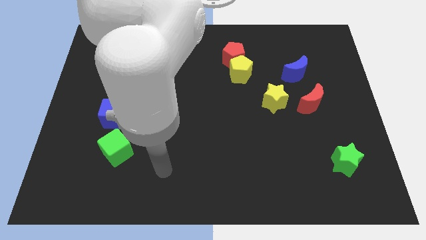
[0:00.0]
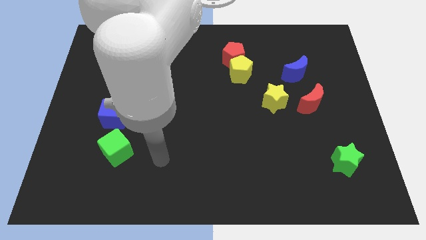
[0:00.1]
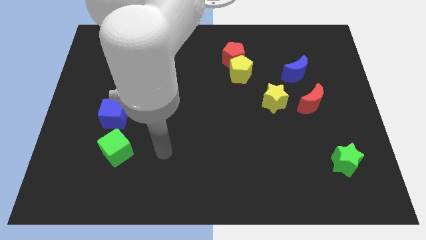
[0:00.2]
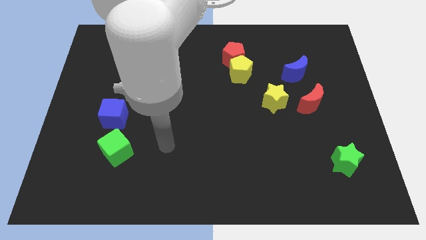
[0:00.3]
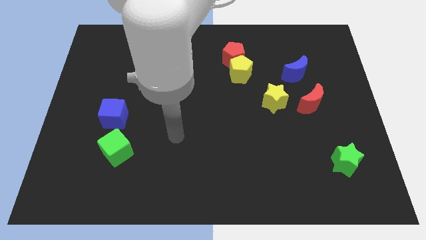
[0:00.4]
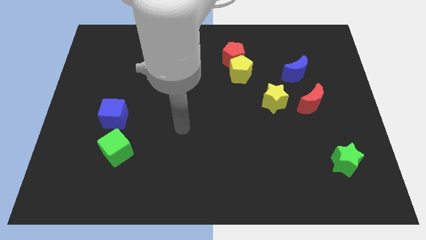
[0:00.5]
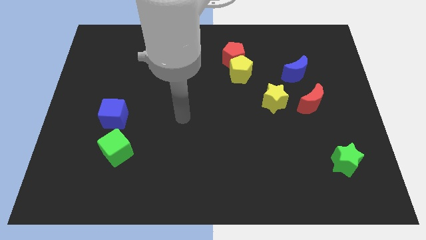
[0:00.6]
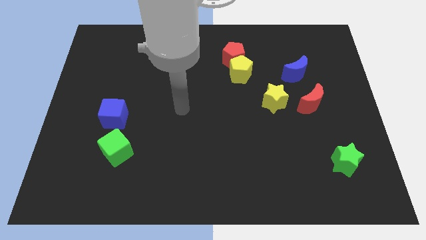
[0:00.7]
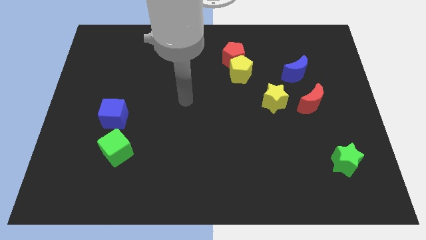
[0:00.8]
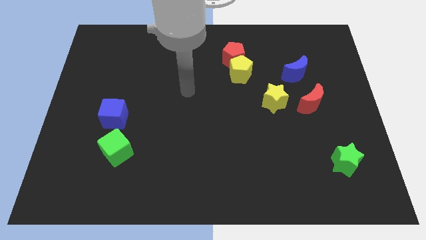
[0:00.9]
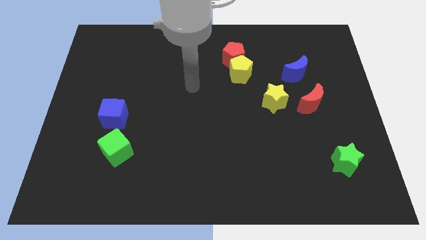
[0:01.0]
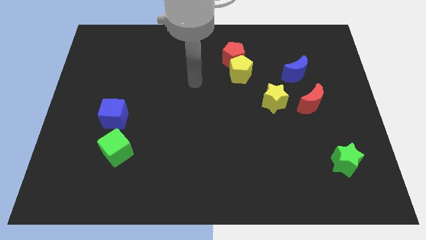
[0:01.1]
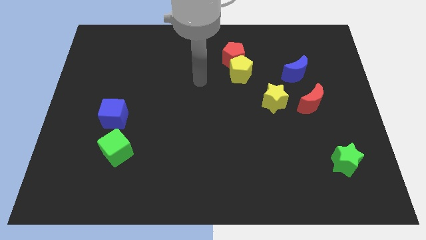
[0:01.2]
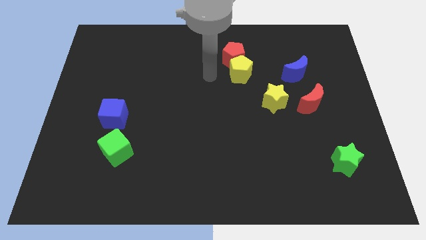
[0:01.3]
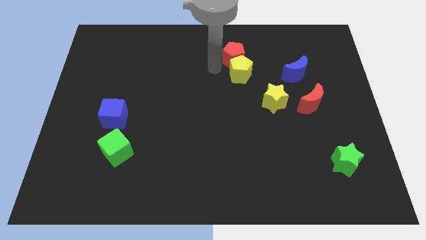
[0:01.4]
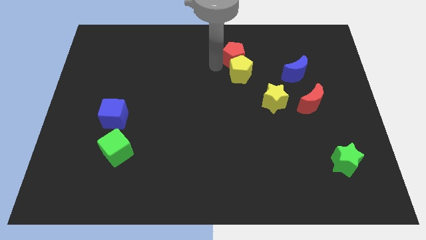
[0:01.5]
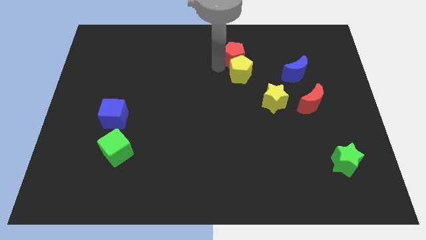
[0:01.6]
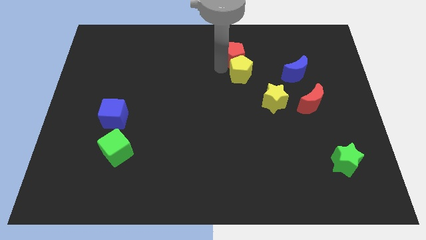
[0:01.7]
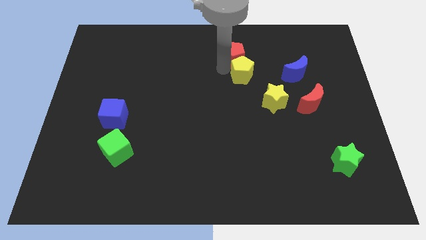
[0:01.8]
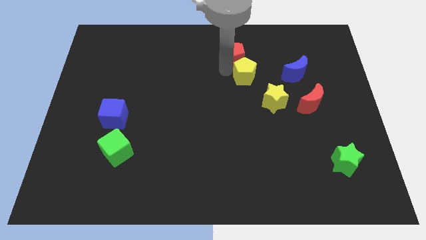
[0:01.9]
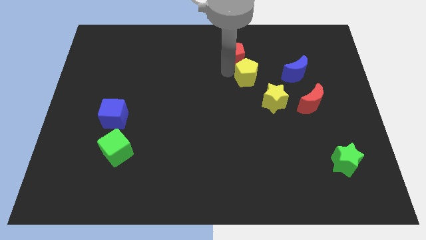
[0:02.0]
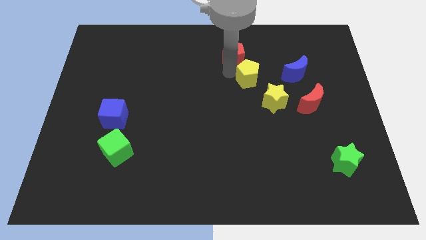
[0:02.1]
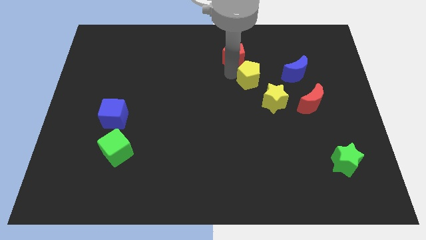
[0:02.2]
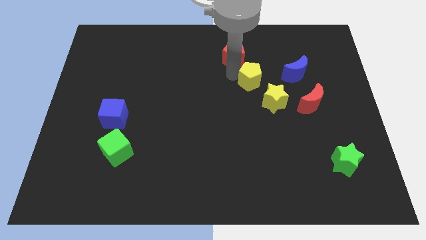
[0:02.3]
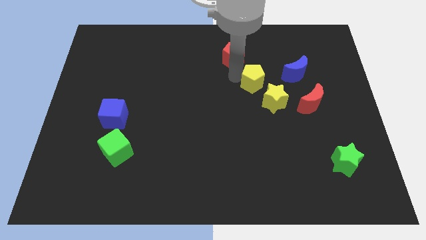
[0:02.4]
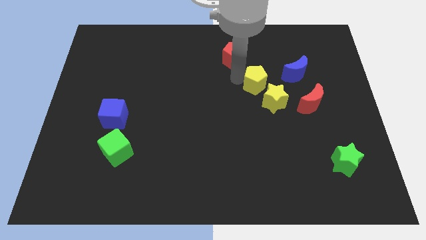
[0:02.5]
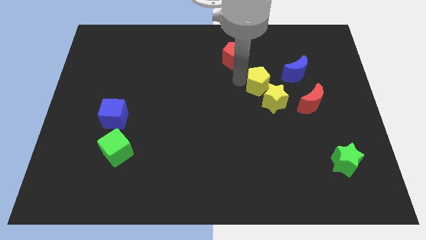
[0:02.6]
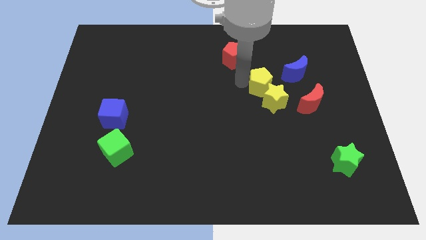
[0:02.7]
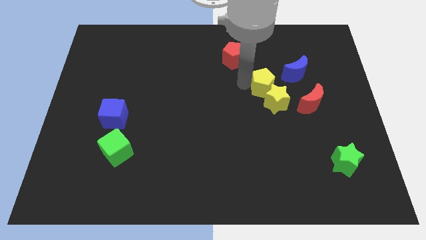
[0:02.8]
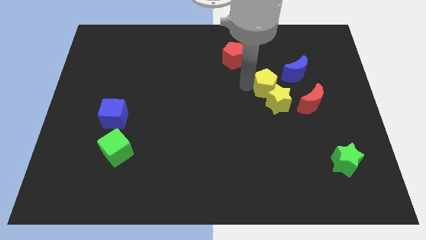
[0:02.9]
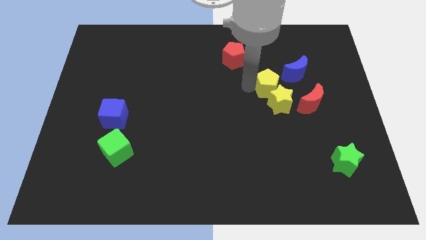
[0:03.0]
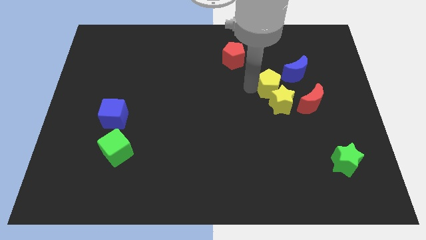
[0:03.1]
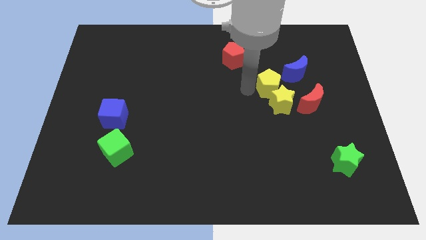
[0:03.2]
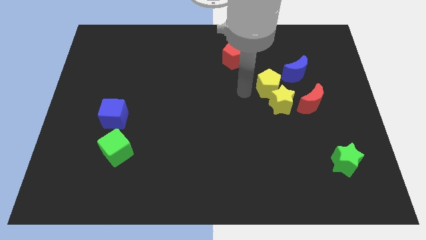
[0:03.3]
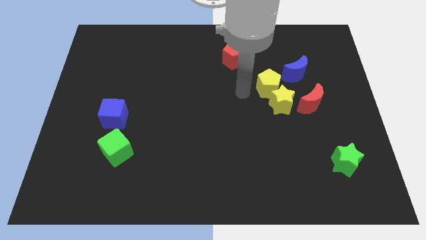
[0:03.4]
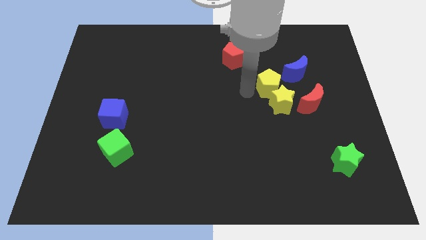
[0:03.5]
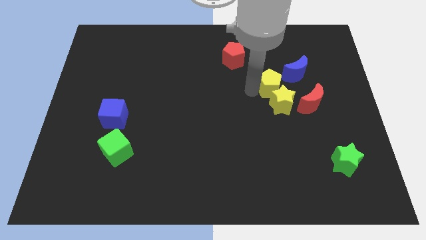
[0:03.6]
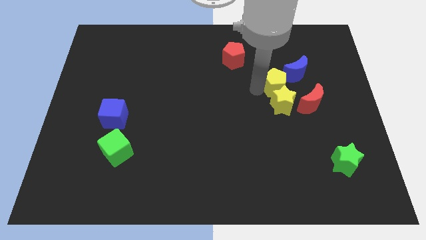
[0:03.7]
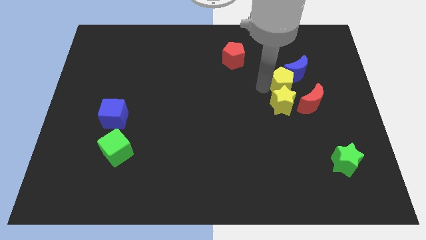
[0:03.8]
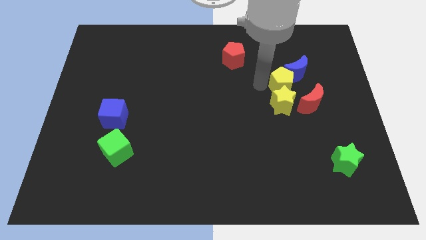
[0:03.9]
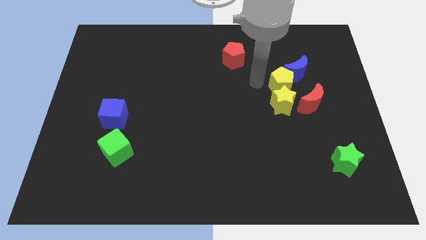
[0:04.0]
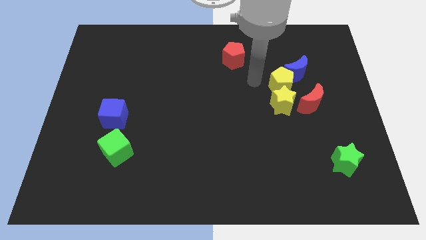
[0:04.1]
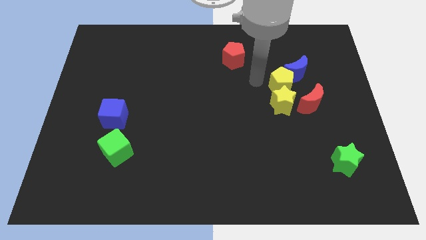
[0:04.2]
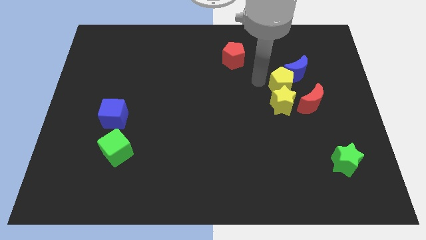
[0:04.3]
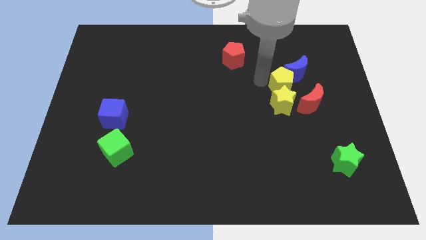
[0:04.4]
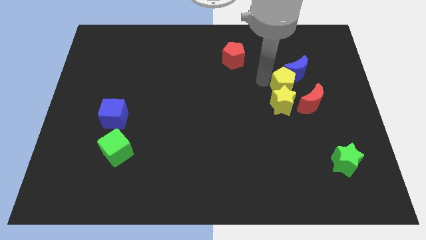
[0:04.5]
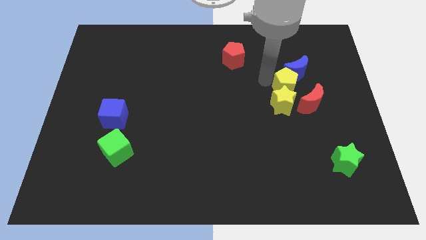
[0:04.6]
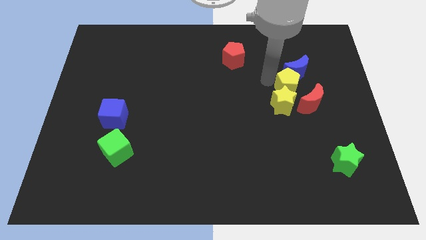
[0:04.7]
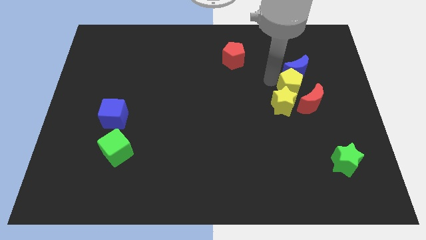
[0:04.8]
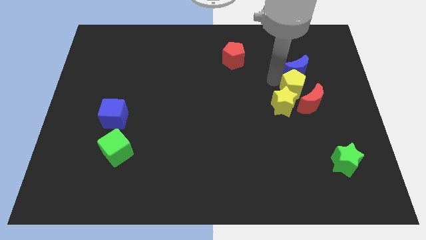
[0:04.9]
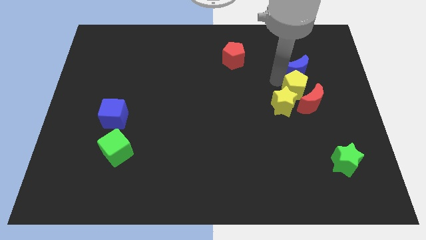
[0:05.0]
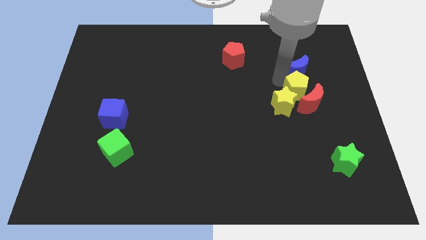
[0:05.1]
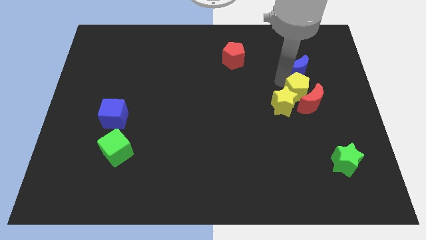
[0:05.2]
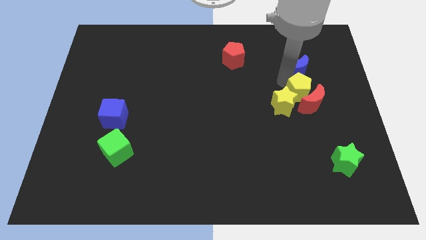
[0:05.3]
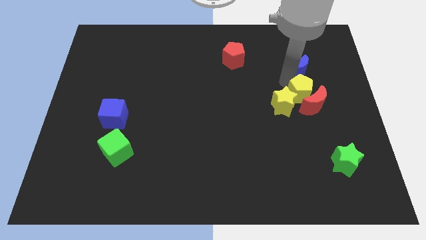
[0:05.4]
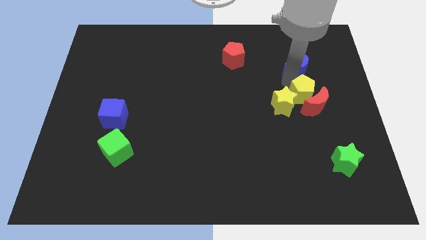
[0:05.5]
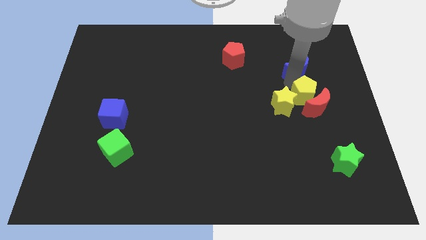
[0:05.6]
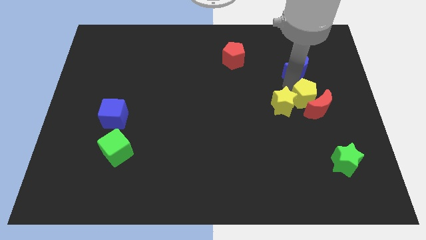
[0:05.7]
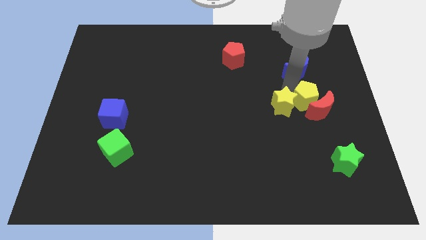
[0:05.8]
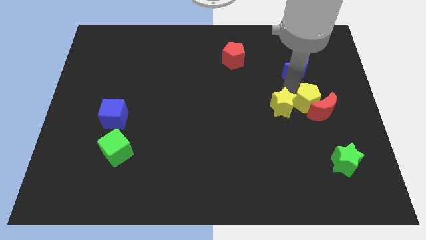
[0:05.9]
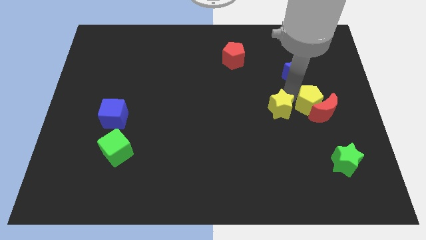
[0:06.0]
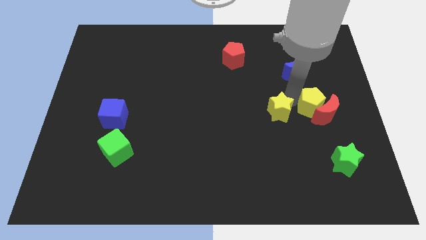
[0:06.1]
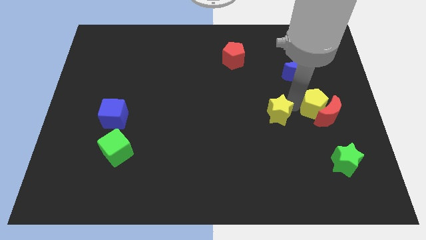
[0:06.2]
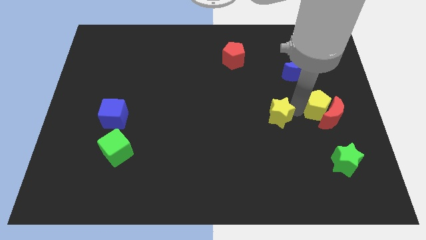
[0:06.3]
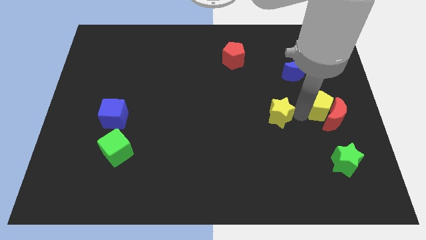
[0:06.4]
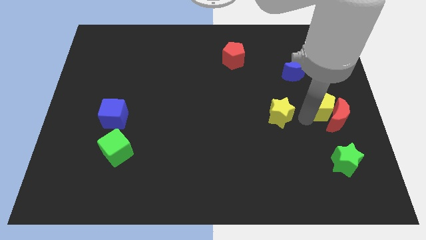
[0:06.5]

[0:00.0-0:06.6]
push the yellow pentagon to the right side of the board
